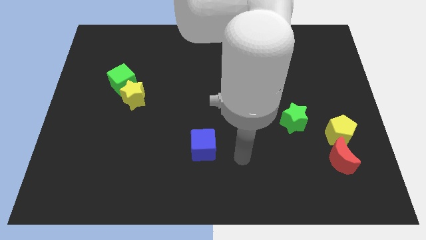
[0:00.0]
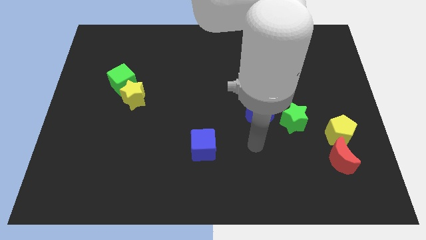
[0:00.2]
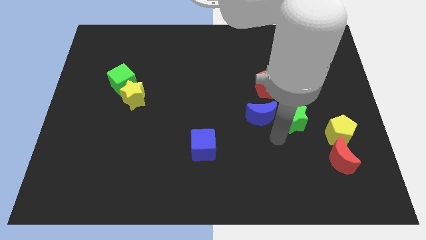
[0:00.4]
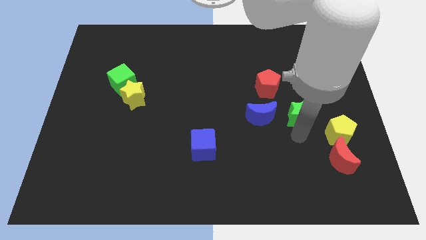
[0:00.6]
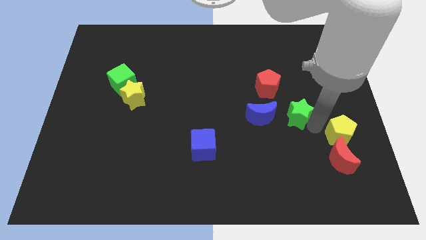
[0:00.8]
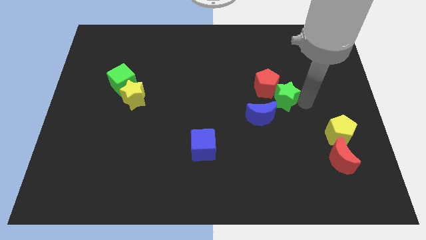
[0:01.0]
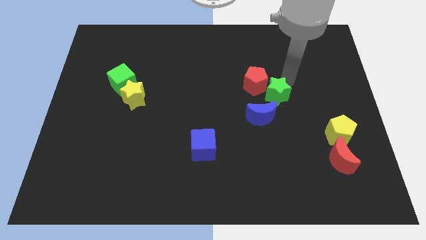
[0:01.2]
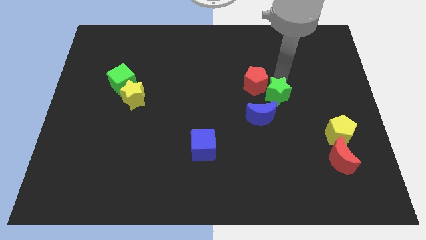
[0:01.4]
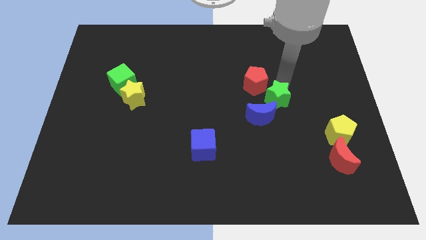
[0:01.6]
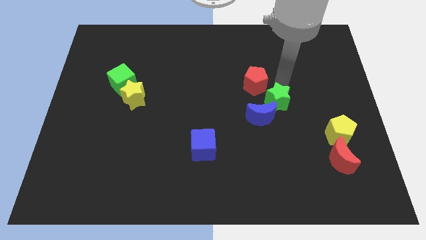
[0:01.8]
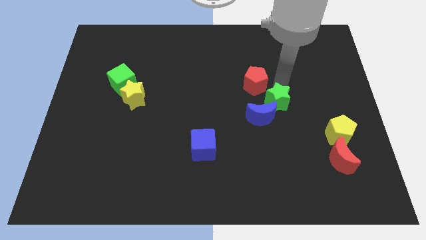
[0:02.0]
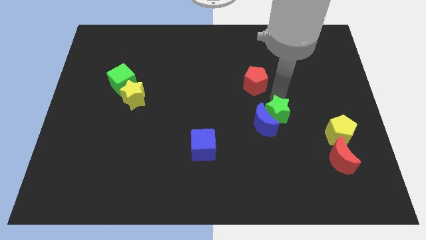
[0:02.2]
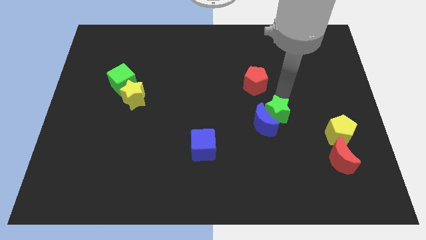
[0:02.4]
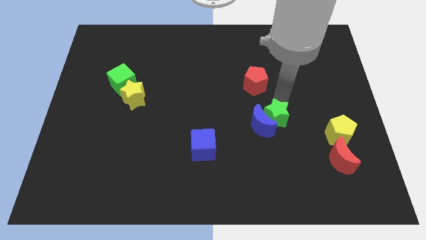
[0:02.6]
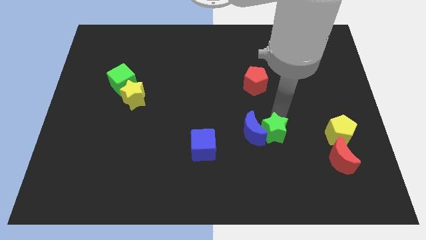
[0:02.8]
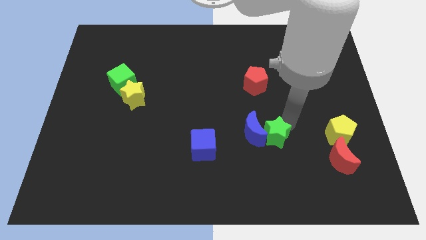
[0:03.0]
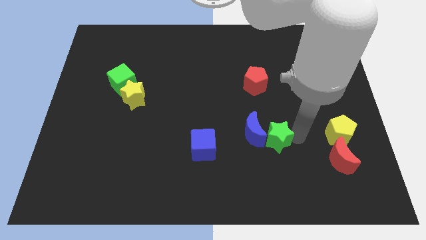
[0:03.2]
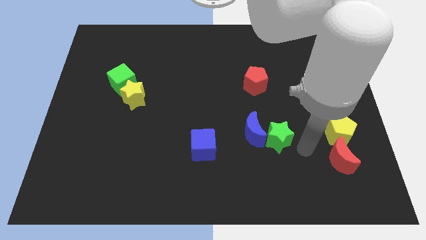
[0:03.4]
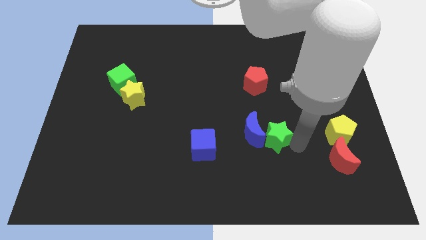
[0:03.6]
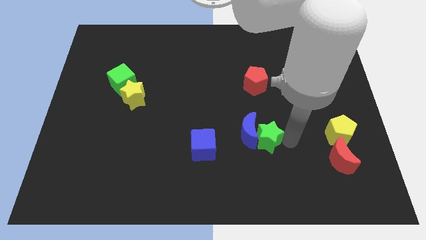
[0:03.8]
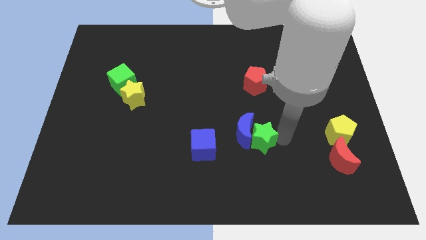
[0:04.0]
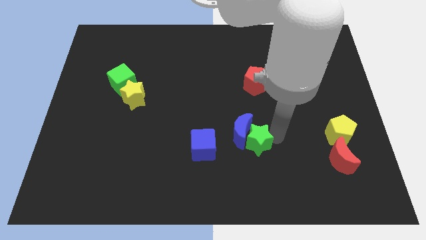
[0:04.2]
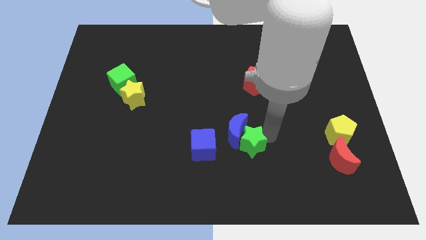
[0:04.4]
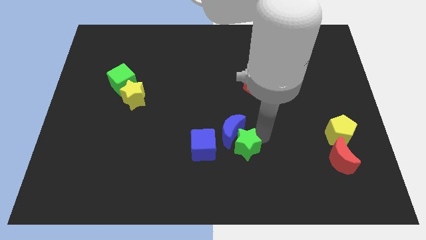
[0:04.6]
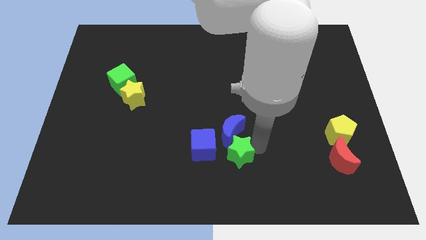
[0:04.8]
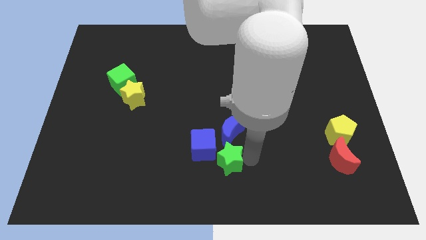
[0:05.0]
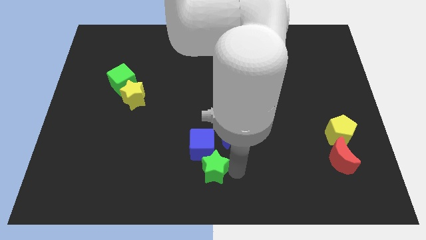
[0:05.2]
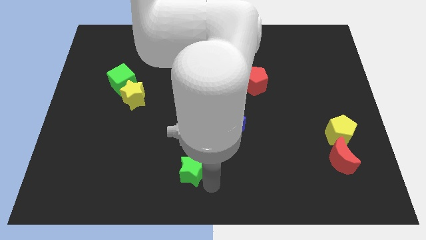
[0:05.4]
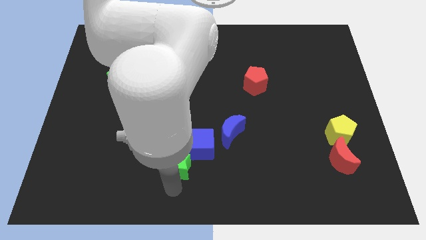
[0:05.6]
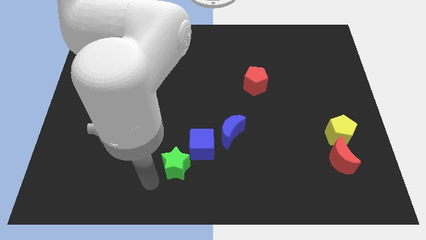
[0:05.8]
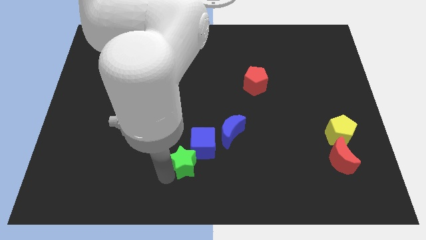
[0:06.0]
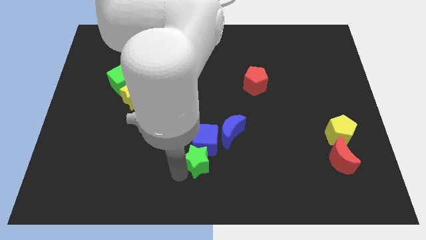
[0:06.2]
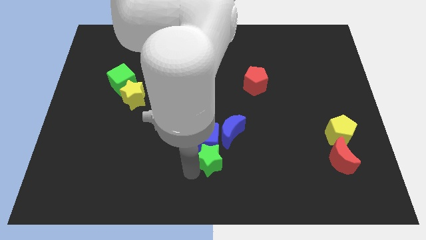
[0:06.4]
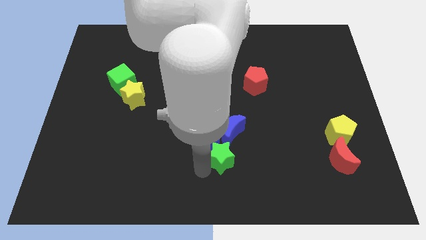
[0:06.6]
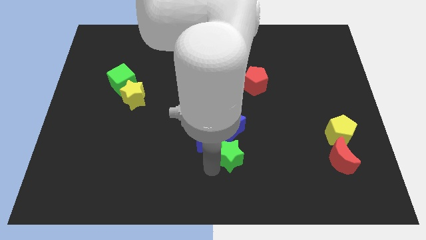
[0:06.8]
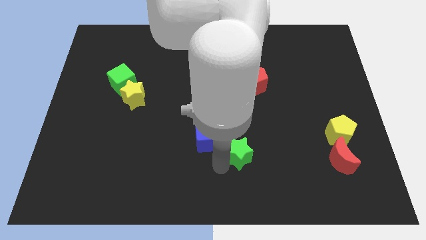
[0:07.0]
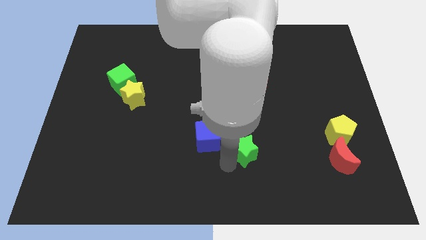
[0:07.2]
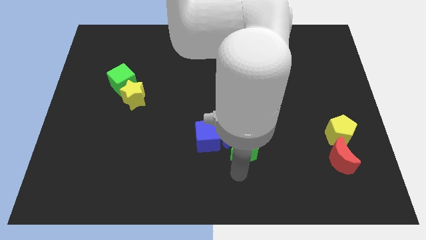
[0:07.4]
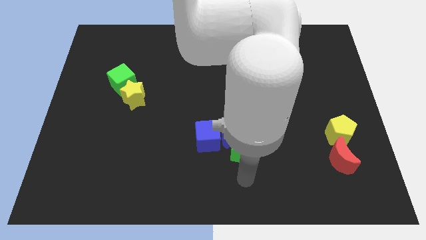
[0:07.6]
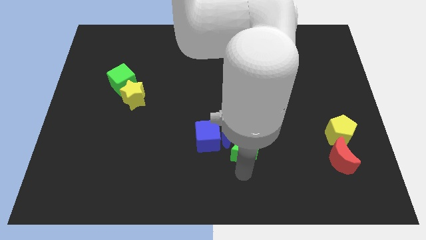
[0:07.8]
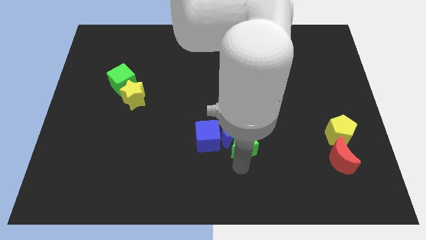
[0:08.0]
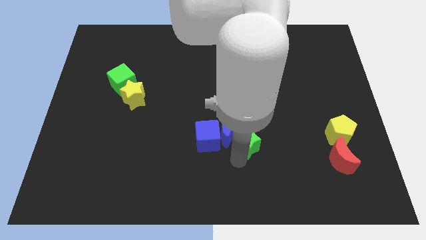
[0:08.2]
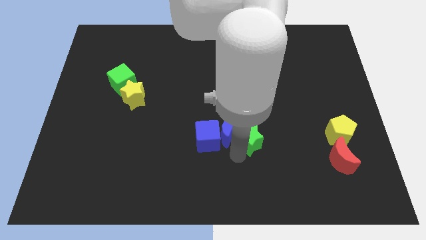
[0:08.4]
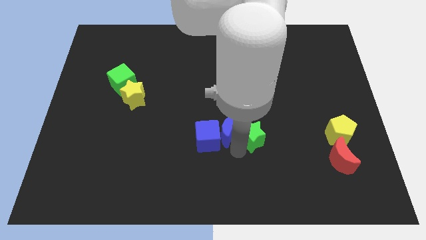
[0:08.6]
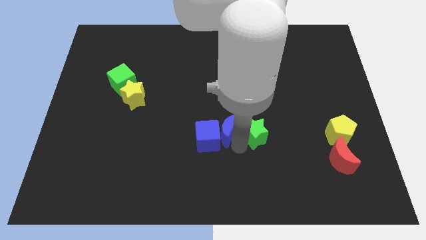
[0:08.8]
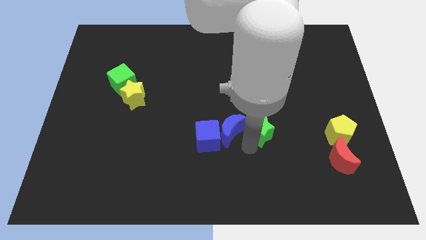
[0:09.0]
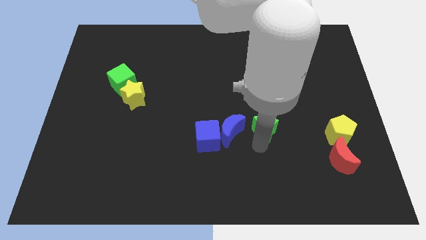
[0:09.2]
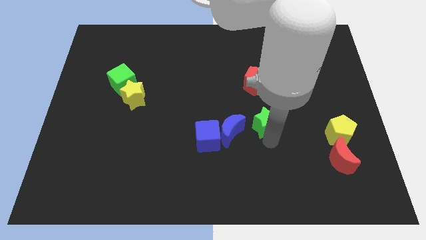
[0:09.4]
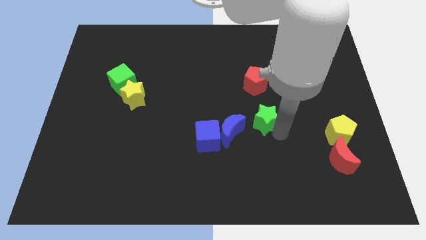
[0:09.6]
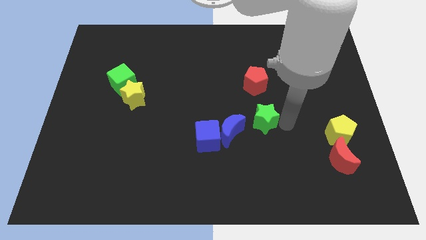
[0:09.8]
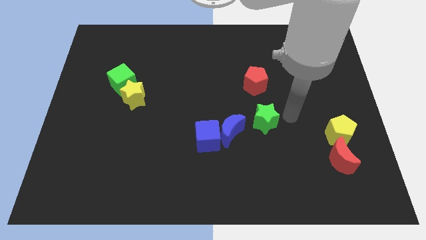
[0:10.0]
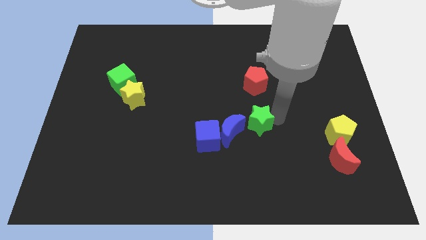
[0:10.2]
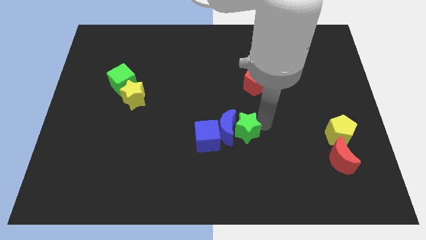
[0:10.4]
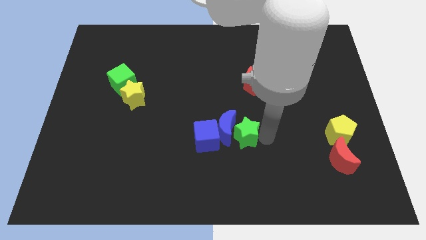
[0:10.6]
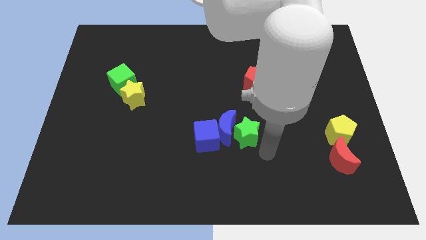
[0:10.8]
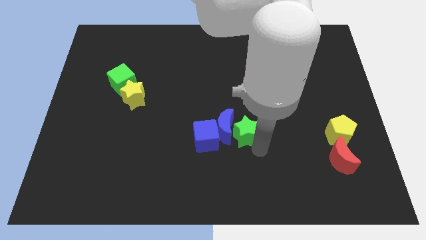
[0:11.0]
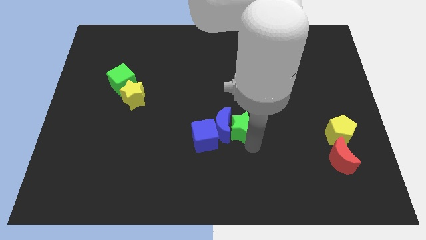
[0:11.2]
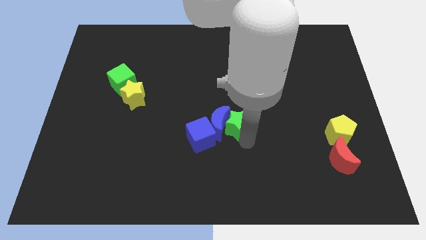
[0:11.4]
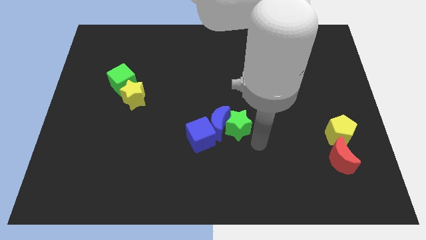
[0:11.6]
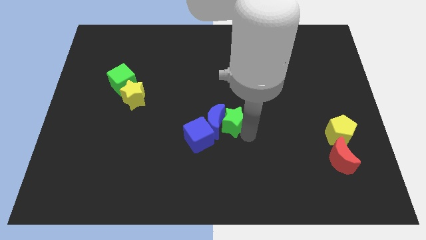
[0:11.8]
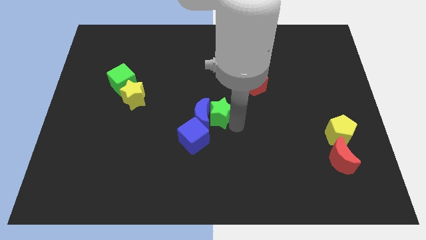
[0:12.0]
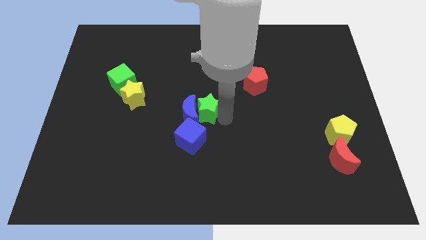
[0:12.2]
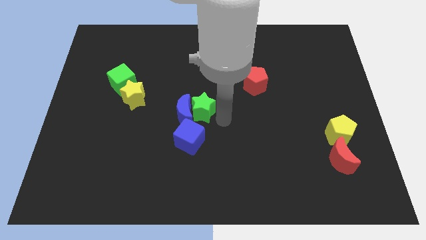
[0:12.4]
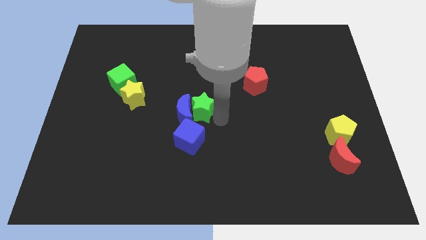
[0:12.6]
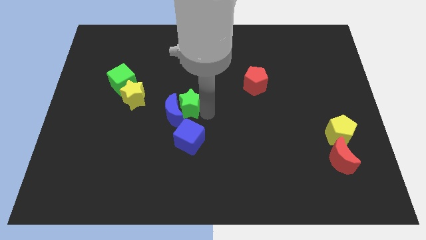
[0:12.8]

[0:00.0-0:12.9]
slide the green star to the right side of the yellow star
